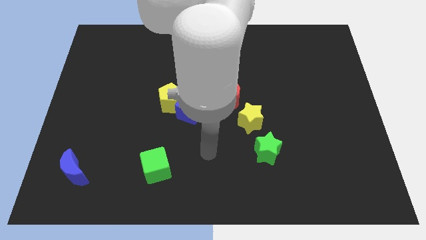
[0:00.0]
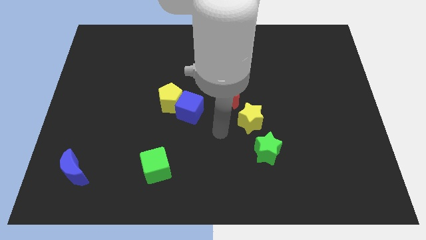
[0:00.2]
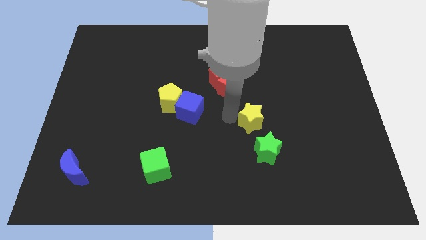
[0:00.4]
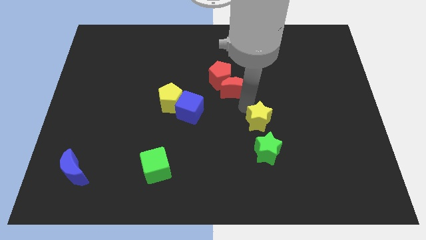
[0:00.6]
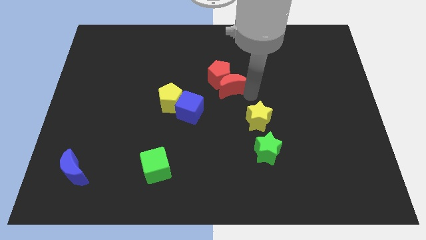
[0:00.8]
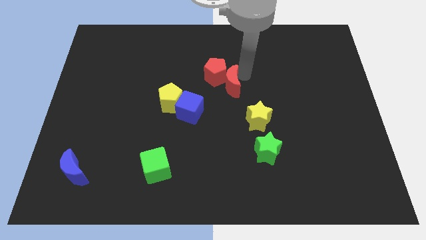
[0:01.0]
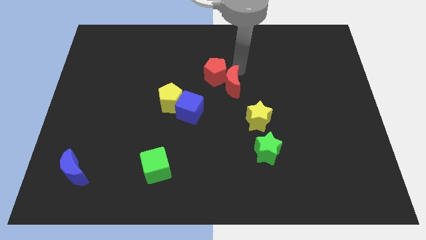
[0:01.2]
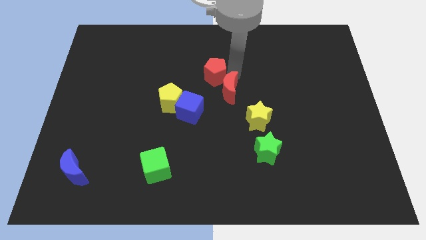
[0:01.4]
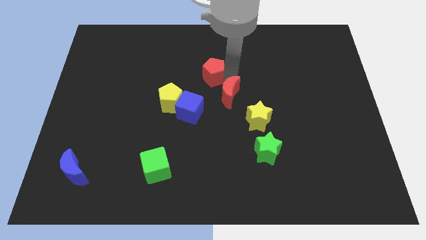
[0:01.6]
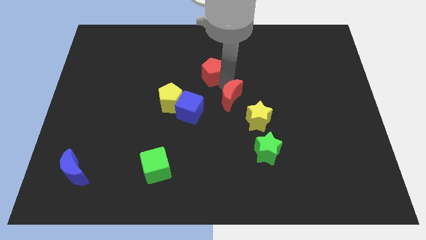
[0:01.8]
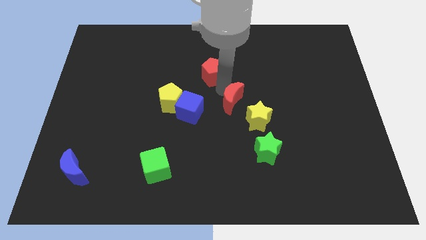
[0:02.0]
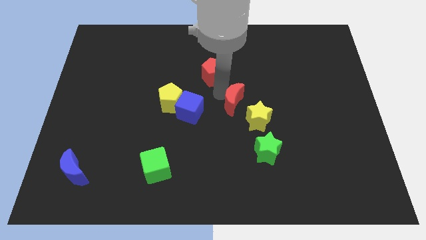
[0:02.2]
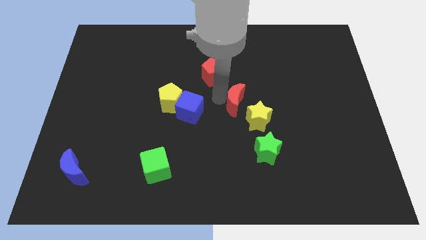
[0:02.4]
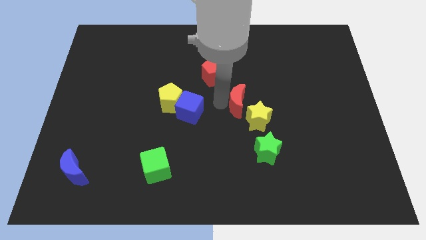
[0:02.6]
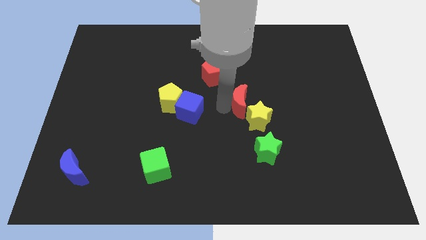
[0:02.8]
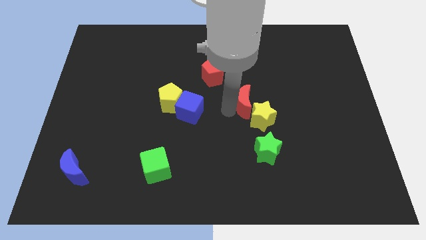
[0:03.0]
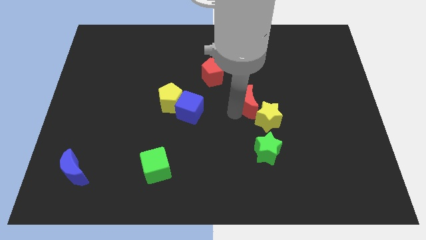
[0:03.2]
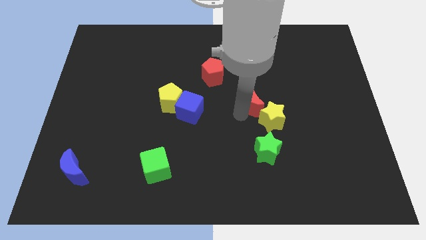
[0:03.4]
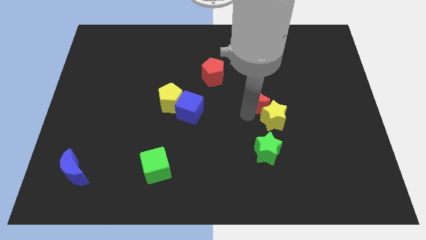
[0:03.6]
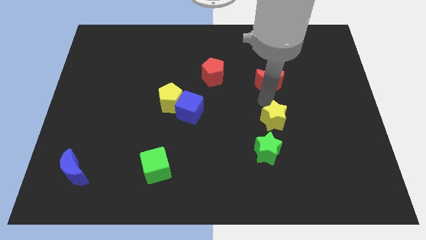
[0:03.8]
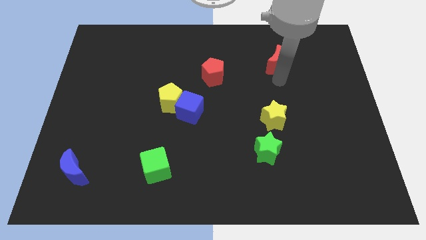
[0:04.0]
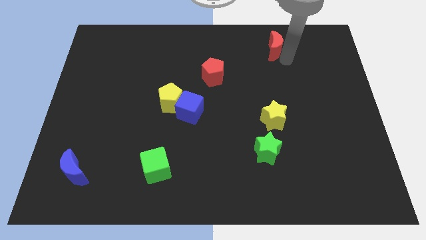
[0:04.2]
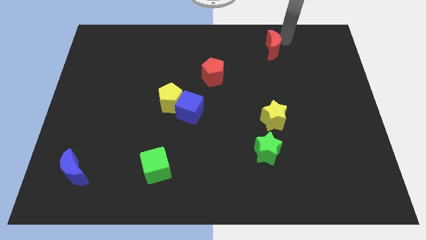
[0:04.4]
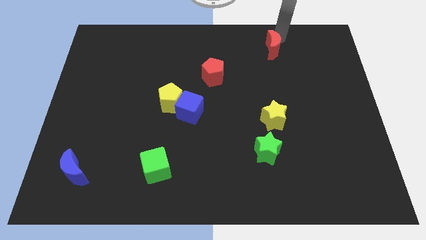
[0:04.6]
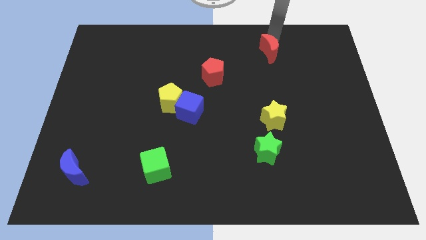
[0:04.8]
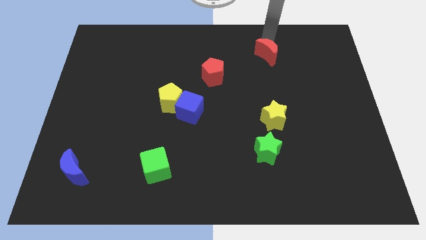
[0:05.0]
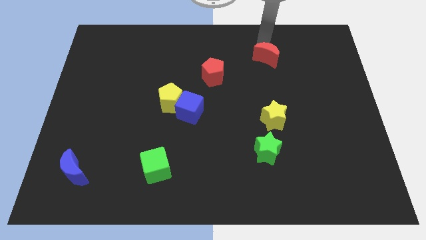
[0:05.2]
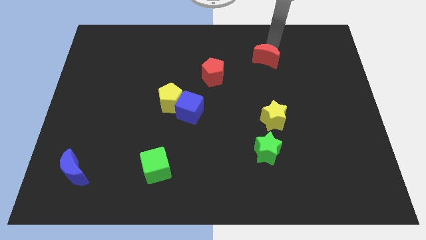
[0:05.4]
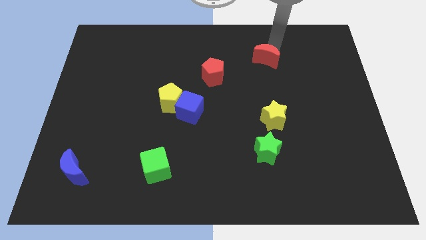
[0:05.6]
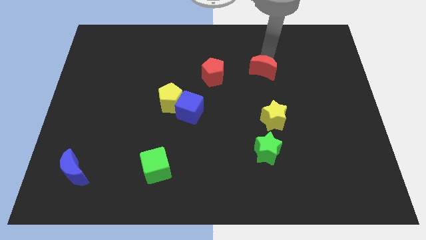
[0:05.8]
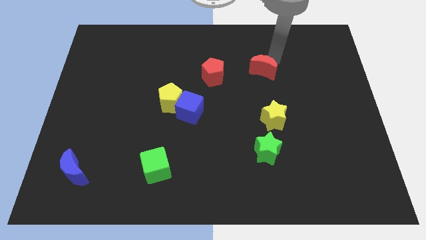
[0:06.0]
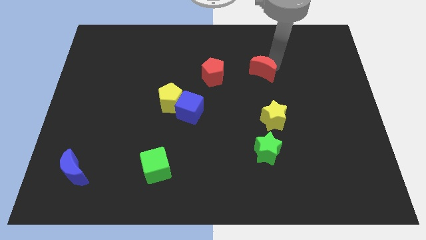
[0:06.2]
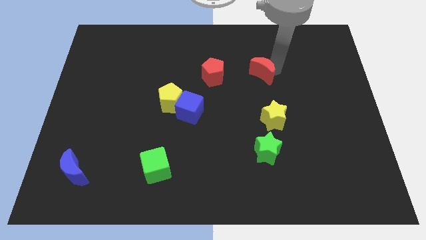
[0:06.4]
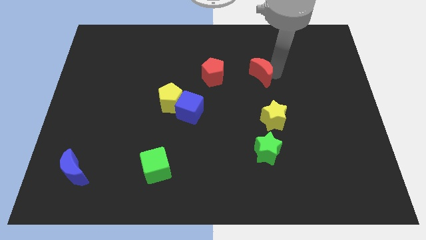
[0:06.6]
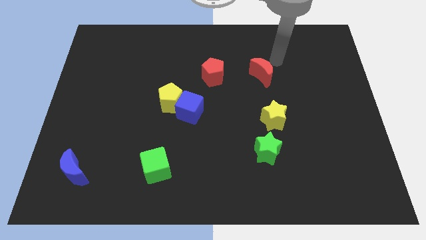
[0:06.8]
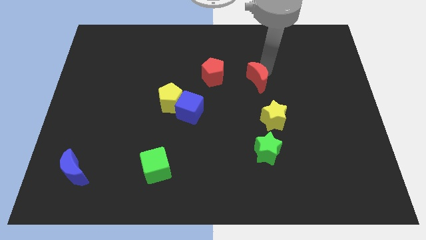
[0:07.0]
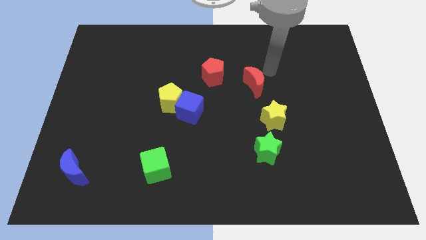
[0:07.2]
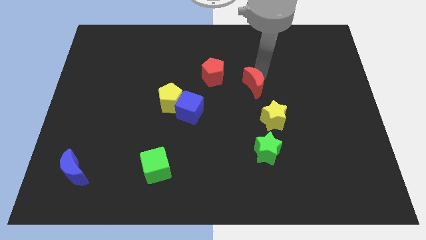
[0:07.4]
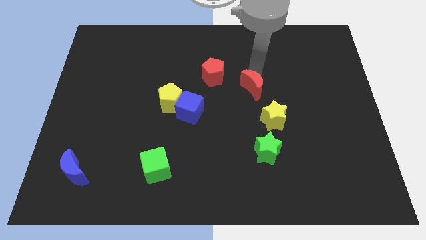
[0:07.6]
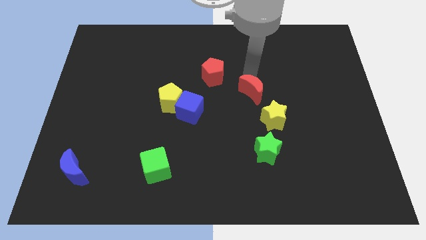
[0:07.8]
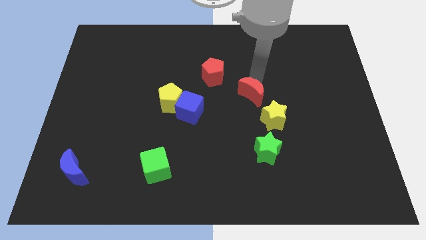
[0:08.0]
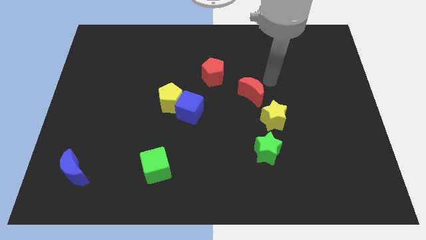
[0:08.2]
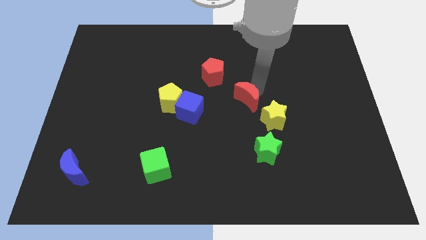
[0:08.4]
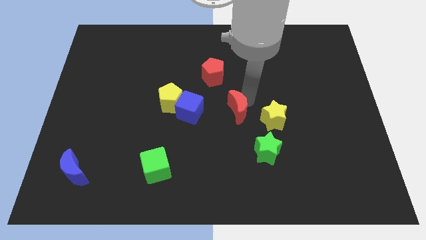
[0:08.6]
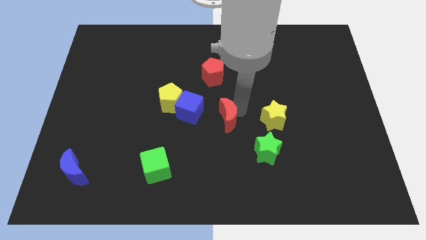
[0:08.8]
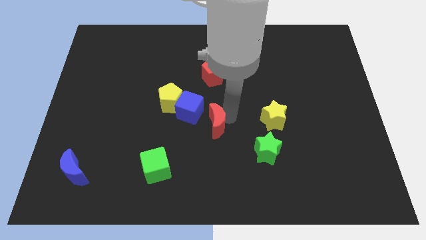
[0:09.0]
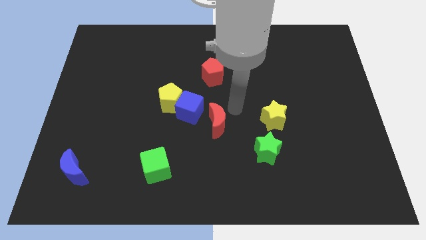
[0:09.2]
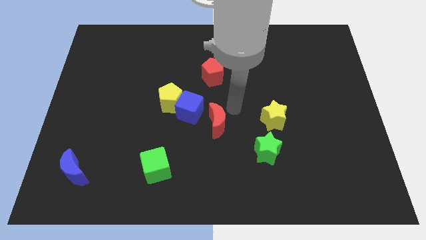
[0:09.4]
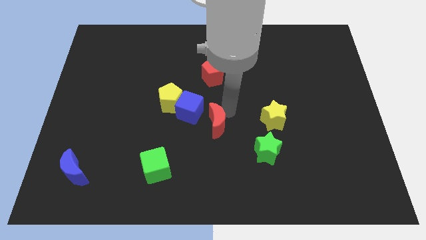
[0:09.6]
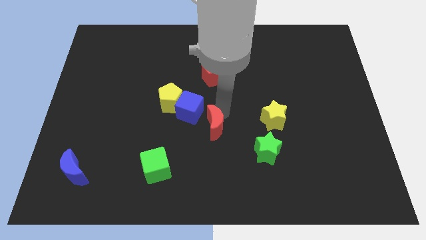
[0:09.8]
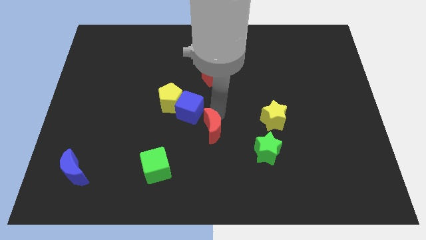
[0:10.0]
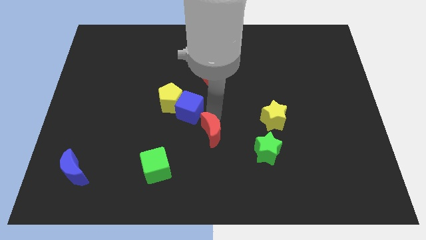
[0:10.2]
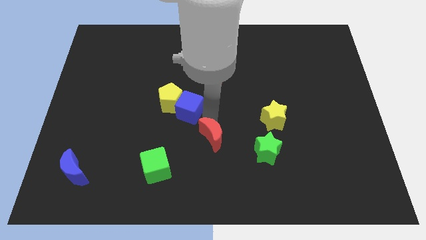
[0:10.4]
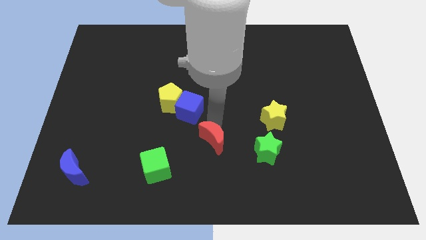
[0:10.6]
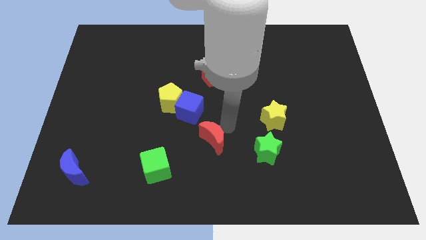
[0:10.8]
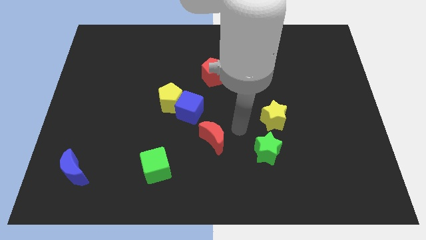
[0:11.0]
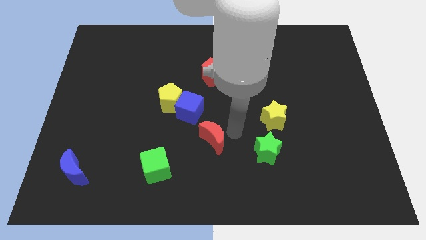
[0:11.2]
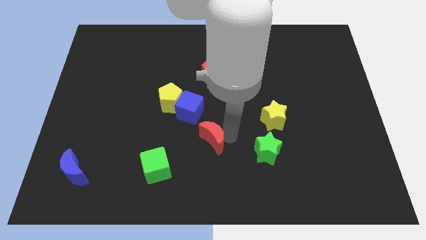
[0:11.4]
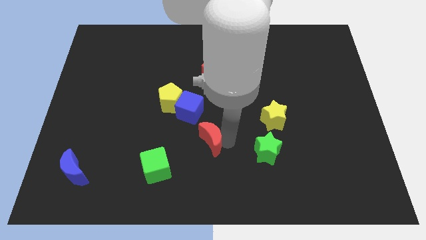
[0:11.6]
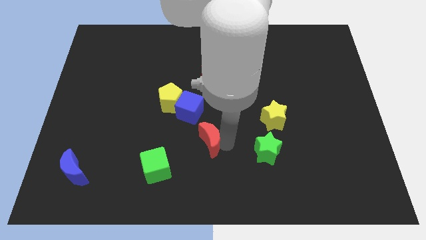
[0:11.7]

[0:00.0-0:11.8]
put the red moon to the bottom of the blue cube

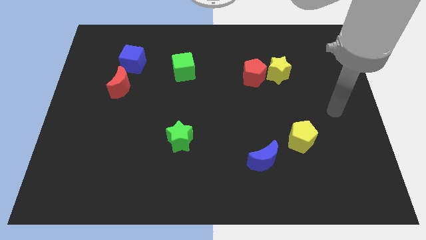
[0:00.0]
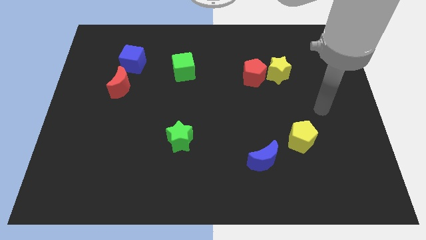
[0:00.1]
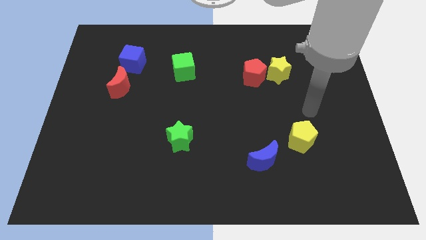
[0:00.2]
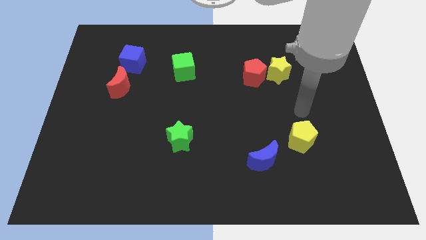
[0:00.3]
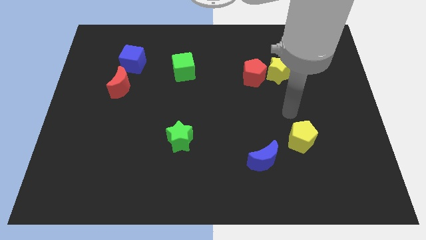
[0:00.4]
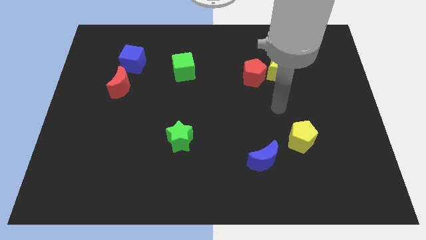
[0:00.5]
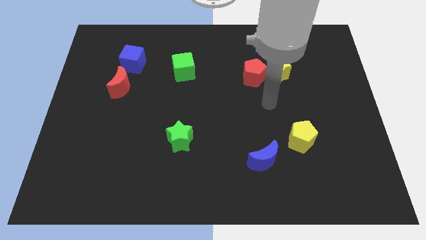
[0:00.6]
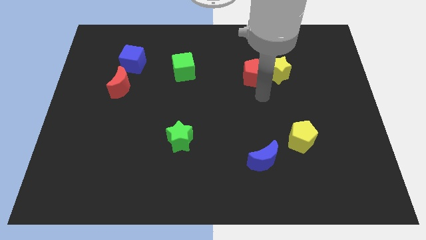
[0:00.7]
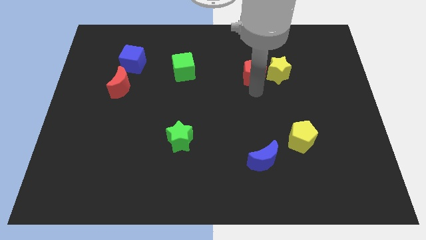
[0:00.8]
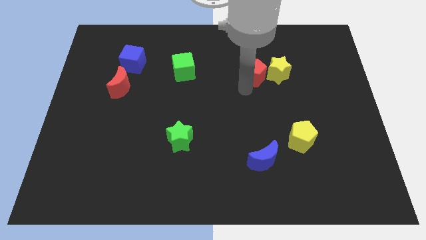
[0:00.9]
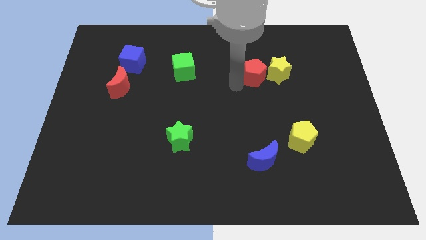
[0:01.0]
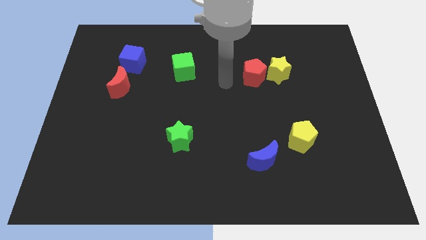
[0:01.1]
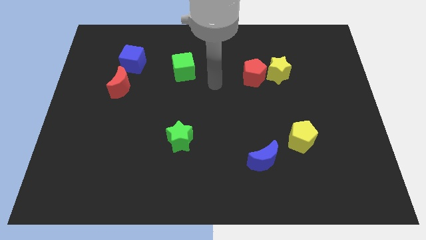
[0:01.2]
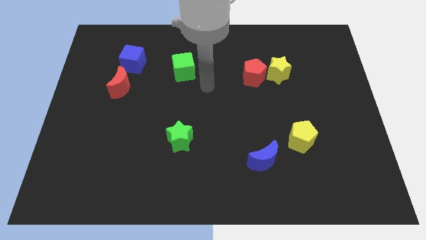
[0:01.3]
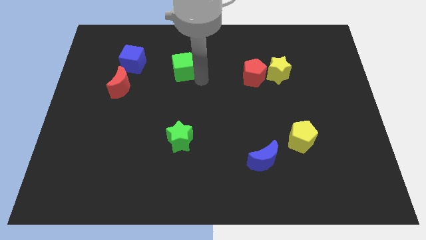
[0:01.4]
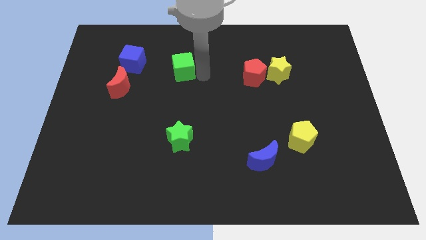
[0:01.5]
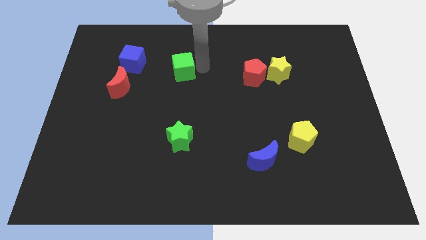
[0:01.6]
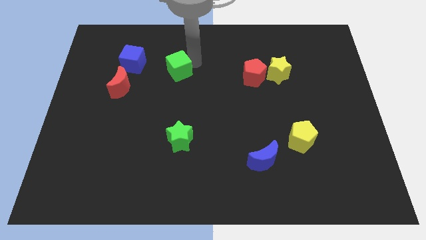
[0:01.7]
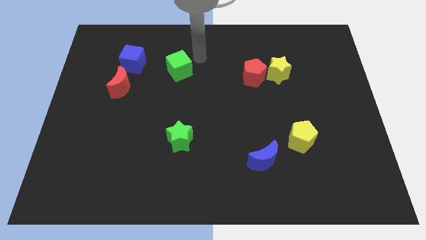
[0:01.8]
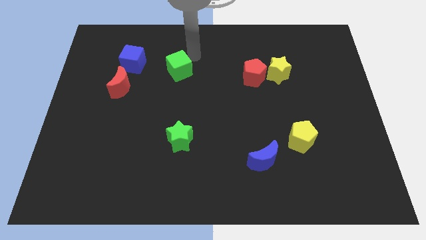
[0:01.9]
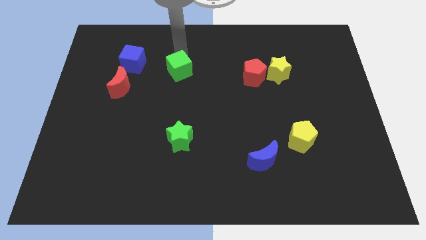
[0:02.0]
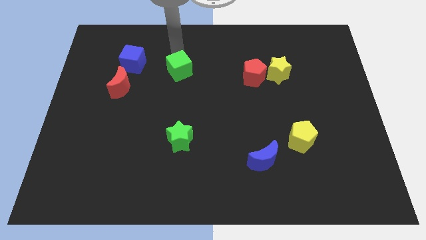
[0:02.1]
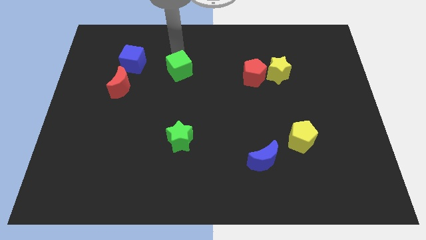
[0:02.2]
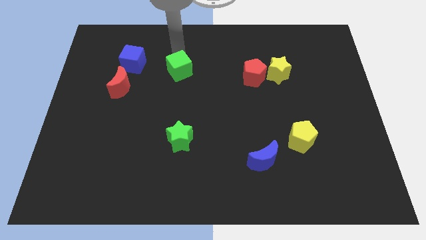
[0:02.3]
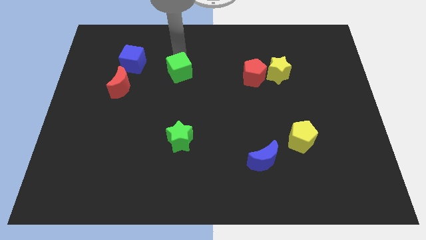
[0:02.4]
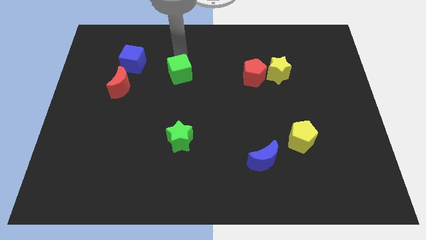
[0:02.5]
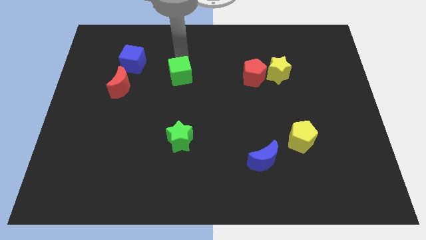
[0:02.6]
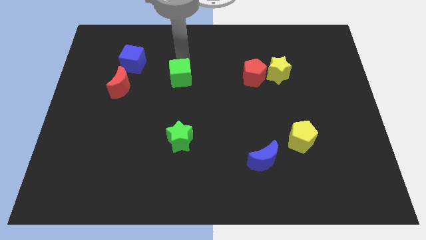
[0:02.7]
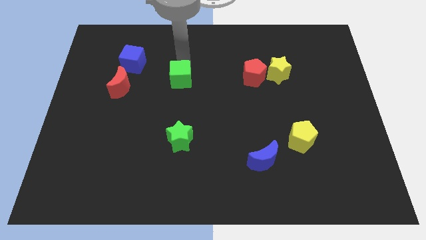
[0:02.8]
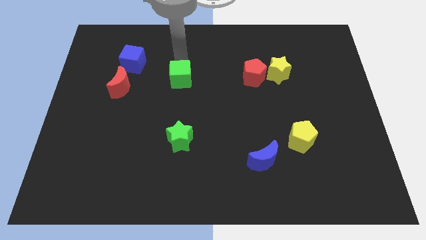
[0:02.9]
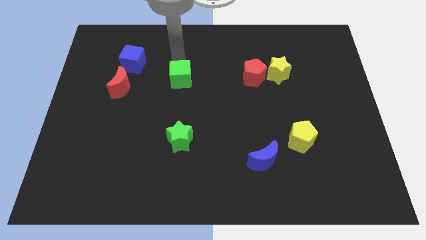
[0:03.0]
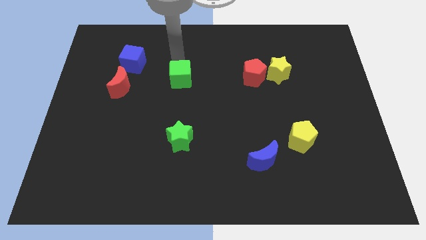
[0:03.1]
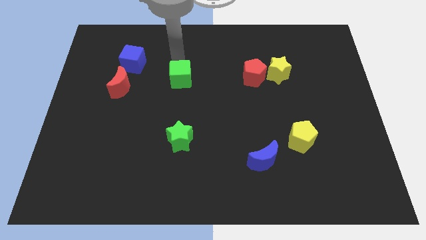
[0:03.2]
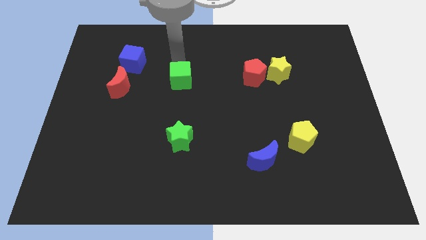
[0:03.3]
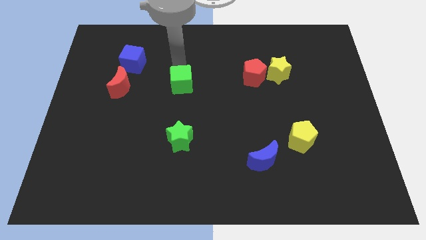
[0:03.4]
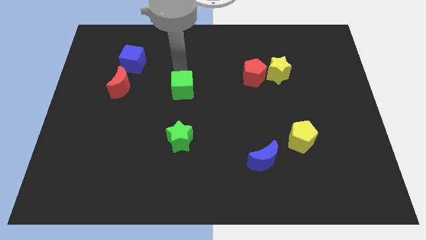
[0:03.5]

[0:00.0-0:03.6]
push the green cube above the green star
